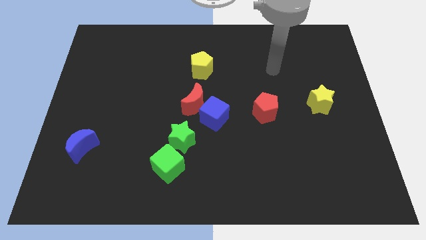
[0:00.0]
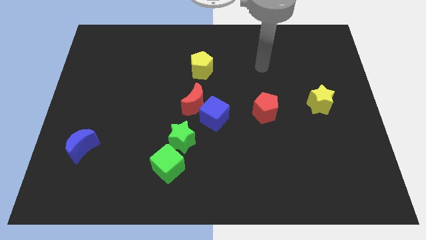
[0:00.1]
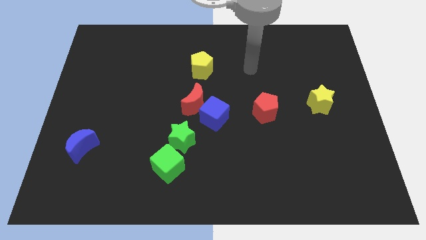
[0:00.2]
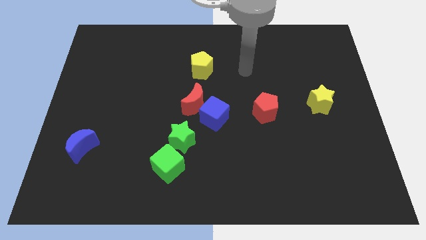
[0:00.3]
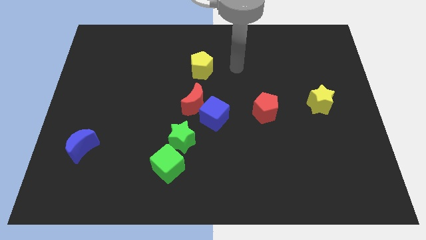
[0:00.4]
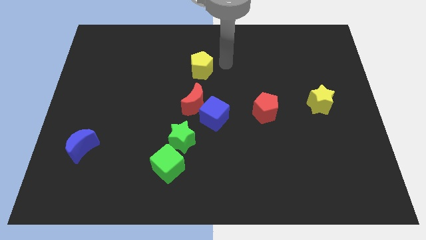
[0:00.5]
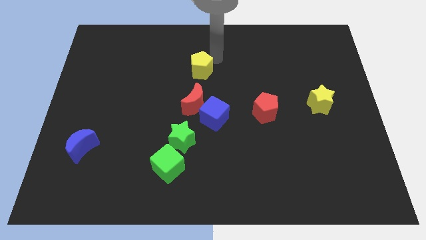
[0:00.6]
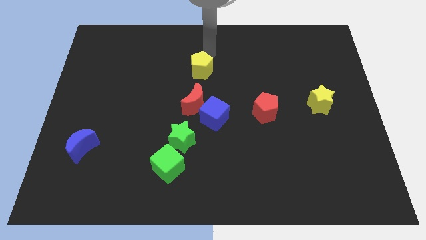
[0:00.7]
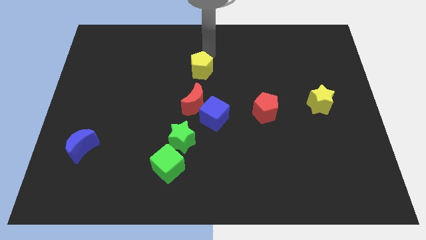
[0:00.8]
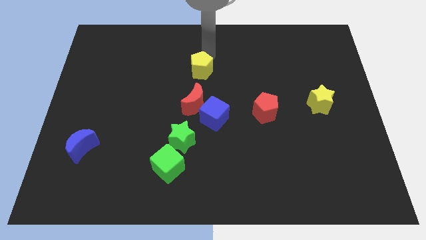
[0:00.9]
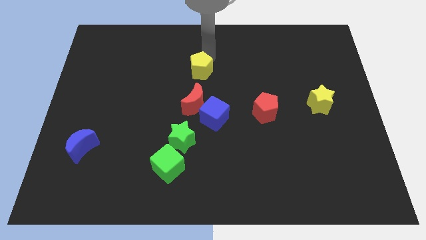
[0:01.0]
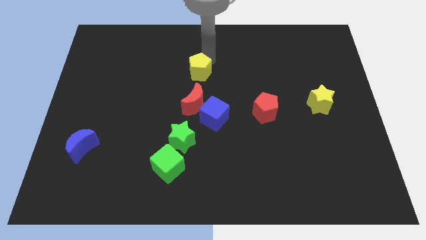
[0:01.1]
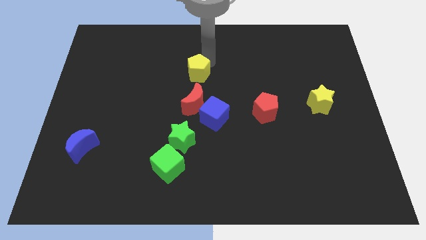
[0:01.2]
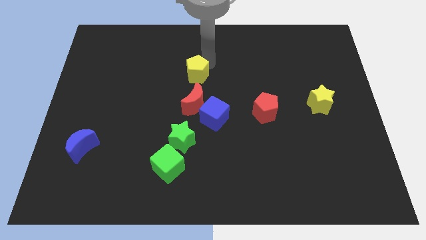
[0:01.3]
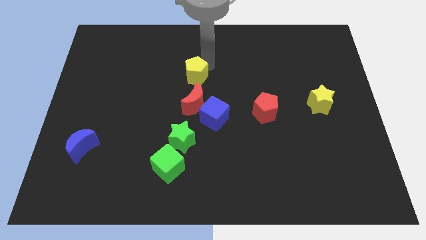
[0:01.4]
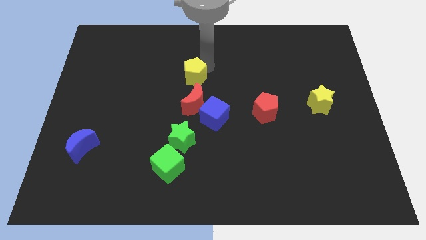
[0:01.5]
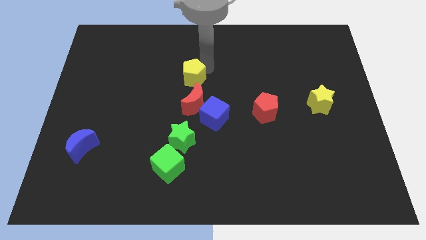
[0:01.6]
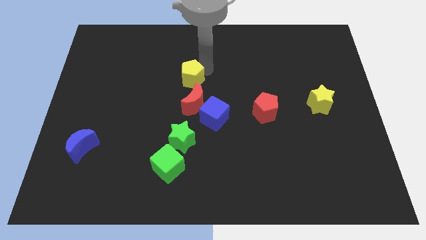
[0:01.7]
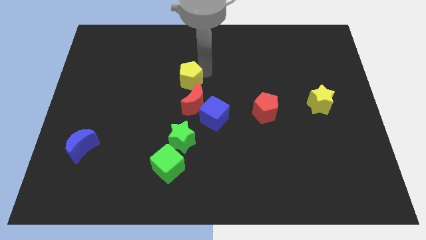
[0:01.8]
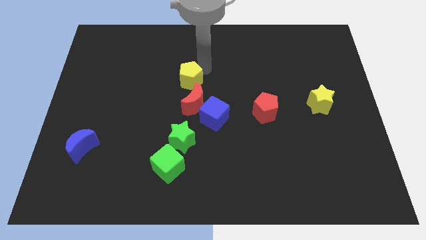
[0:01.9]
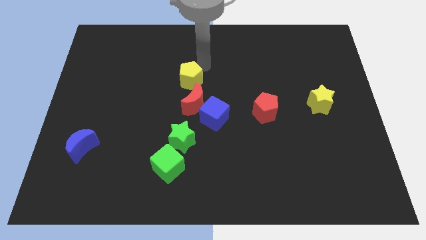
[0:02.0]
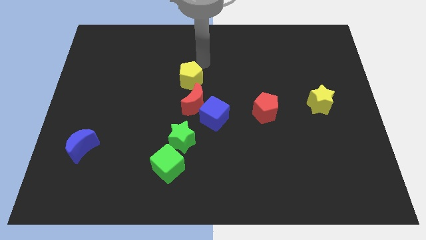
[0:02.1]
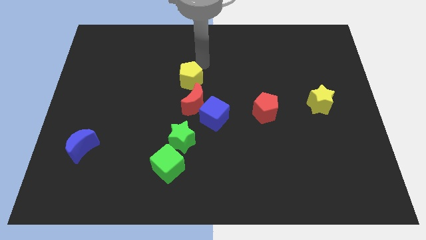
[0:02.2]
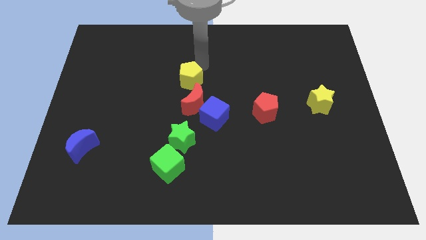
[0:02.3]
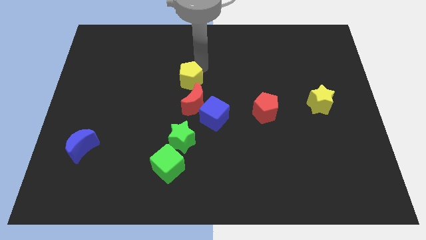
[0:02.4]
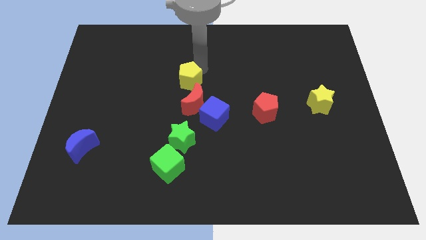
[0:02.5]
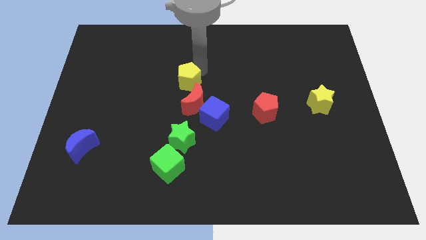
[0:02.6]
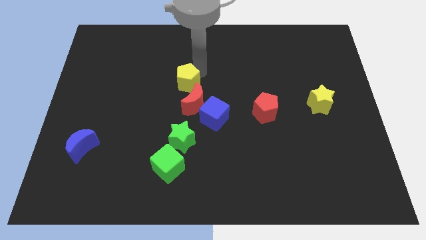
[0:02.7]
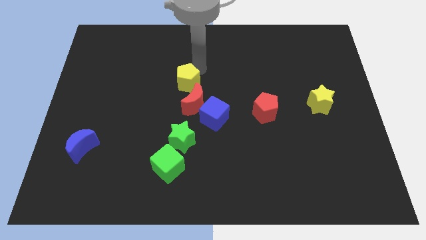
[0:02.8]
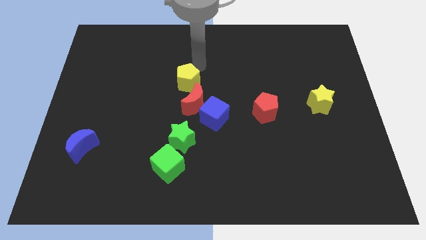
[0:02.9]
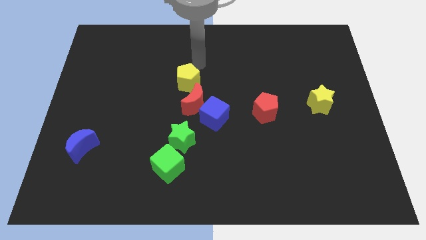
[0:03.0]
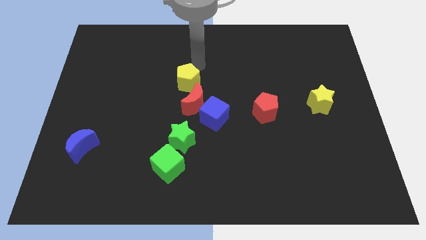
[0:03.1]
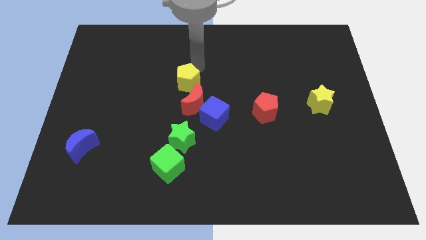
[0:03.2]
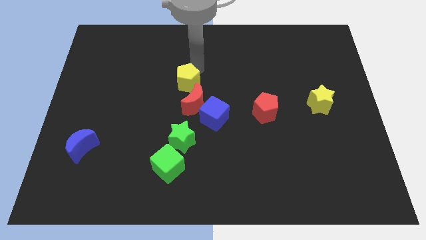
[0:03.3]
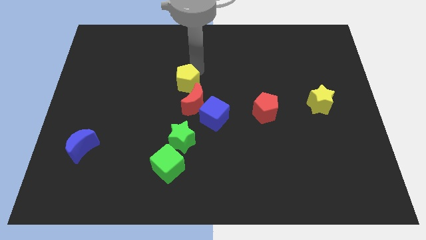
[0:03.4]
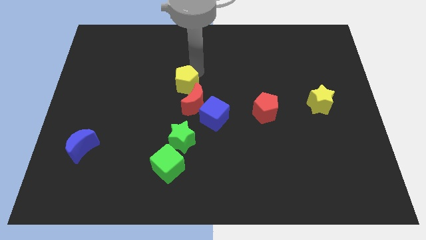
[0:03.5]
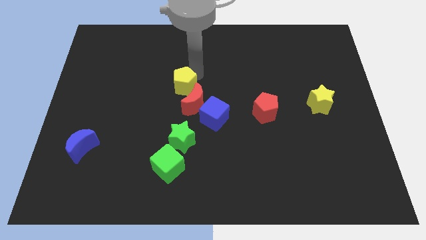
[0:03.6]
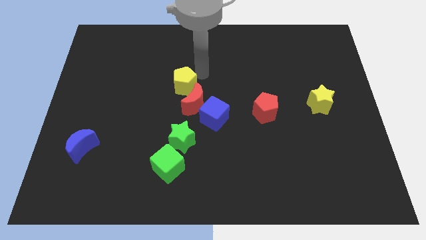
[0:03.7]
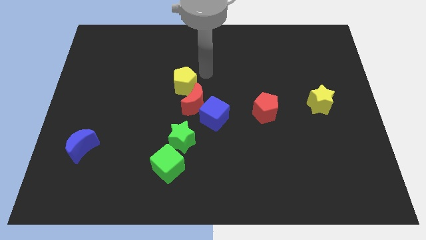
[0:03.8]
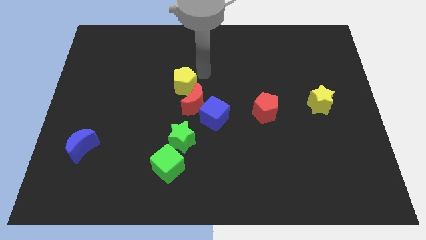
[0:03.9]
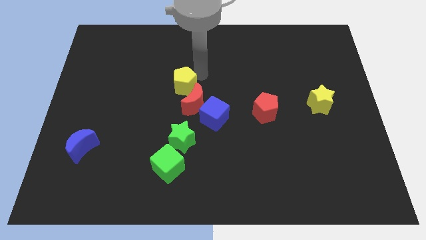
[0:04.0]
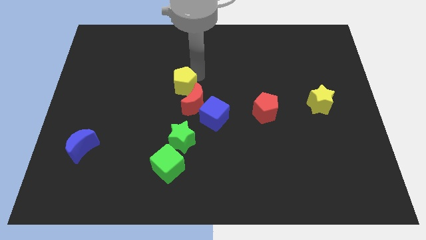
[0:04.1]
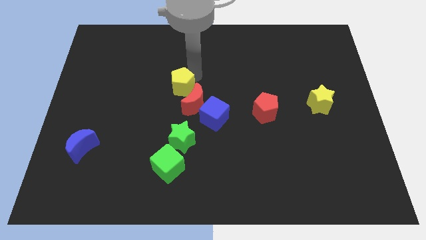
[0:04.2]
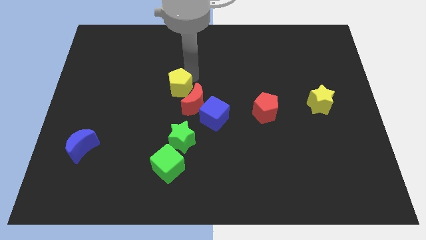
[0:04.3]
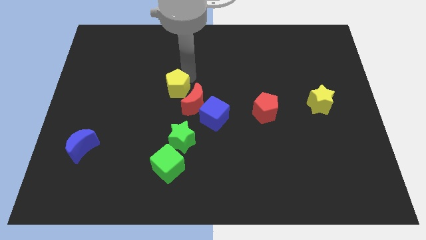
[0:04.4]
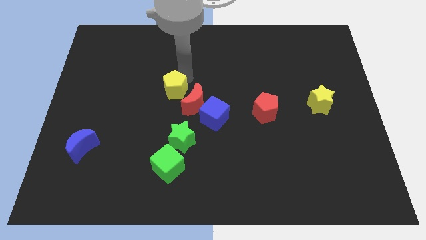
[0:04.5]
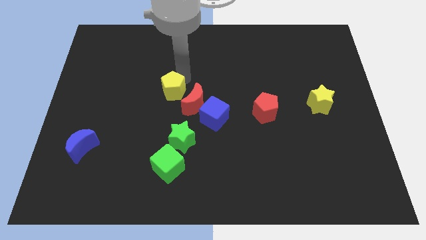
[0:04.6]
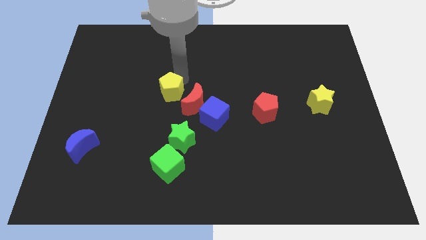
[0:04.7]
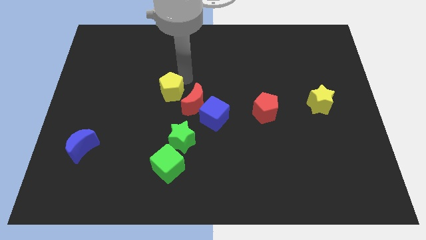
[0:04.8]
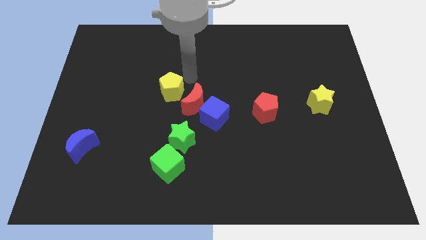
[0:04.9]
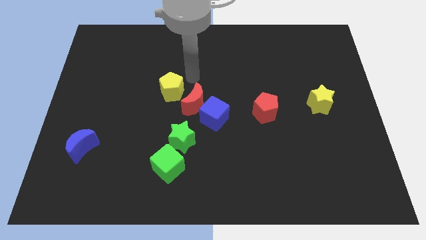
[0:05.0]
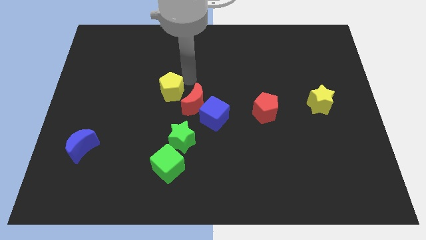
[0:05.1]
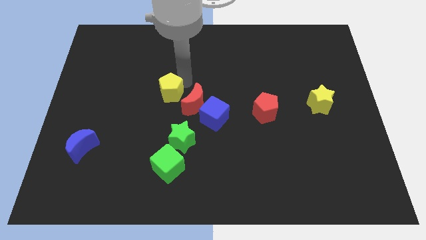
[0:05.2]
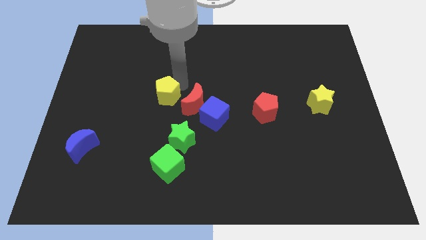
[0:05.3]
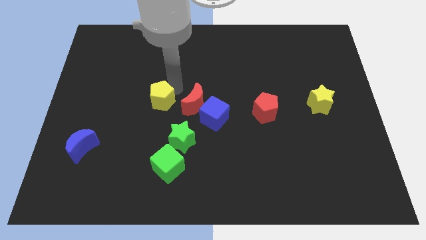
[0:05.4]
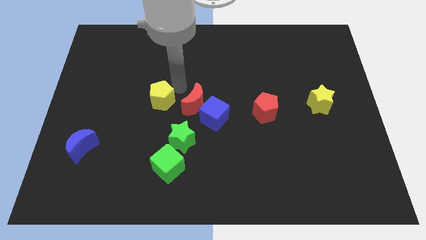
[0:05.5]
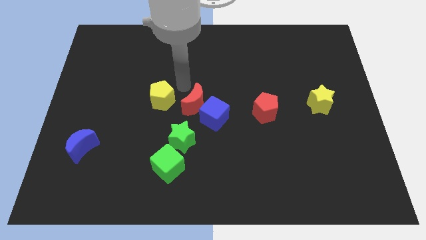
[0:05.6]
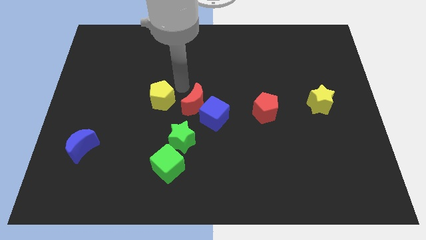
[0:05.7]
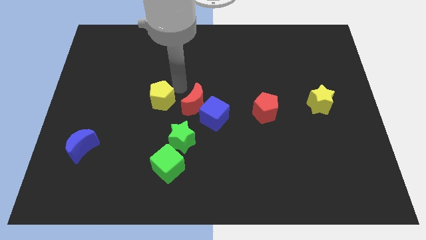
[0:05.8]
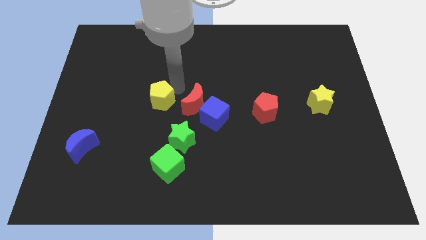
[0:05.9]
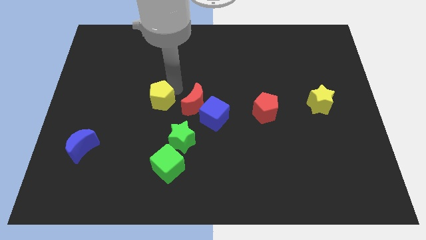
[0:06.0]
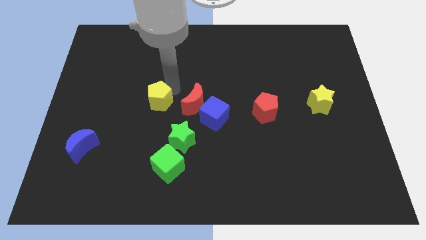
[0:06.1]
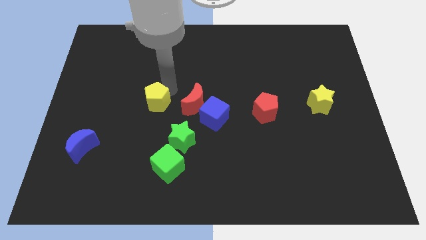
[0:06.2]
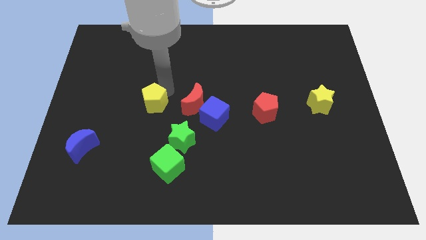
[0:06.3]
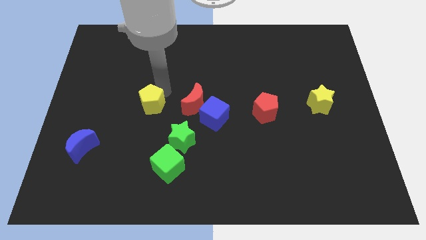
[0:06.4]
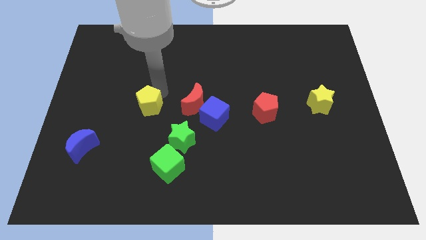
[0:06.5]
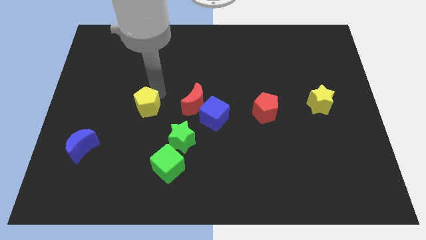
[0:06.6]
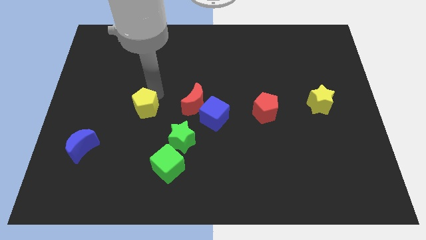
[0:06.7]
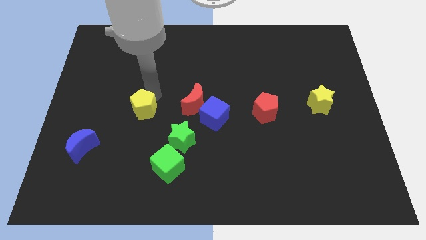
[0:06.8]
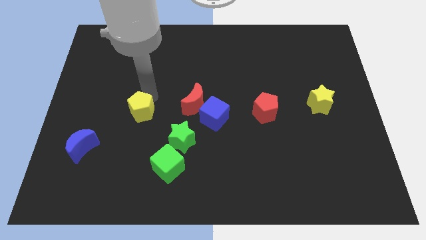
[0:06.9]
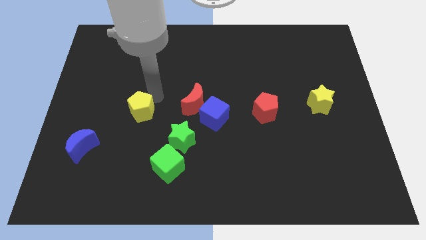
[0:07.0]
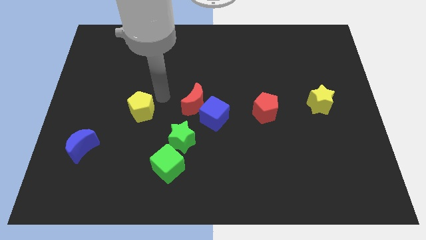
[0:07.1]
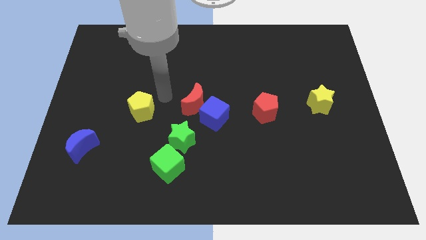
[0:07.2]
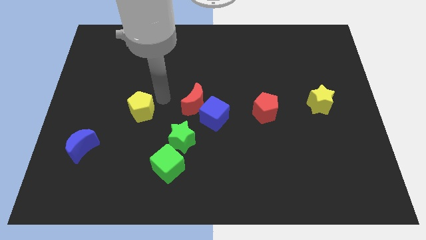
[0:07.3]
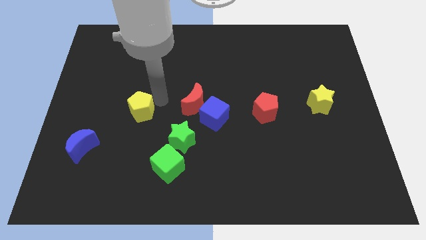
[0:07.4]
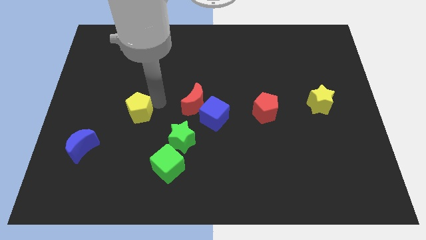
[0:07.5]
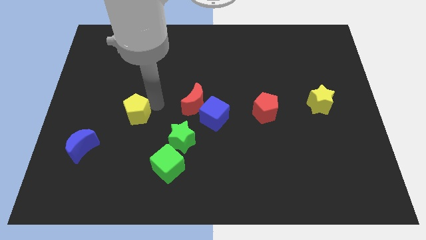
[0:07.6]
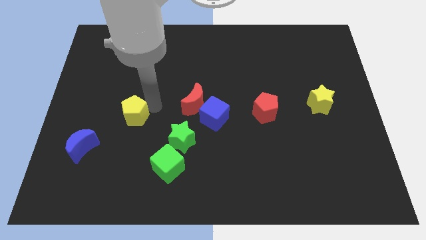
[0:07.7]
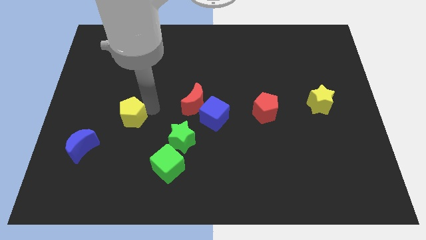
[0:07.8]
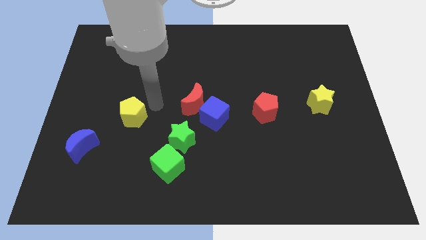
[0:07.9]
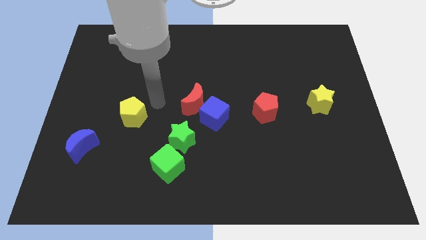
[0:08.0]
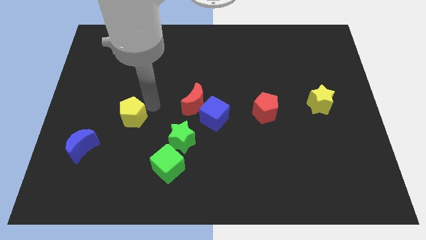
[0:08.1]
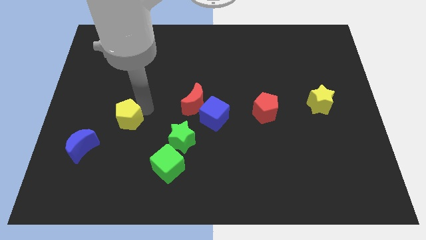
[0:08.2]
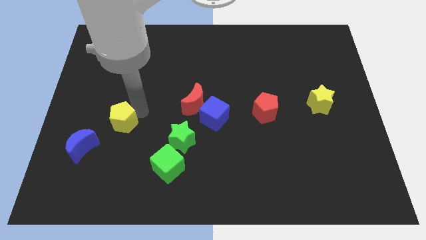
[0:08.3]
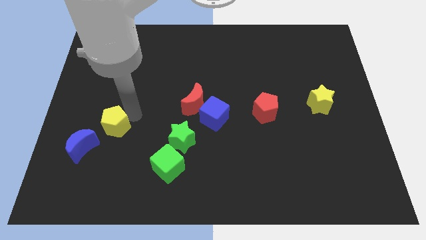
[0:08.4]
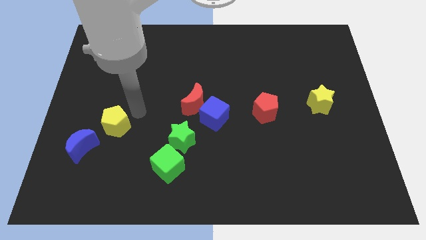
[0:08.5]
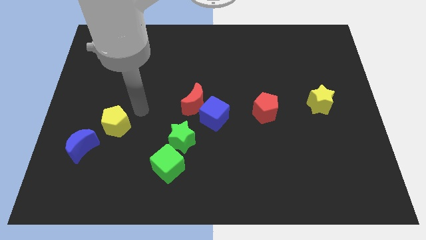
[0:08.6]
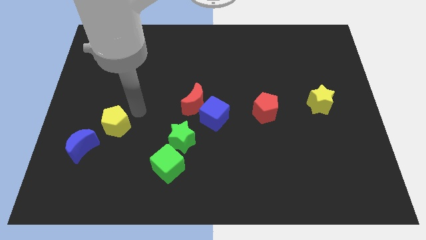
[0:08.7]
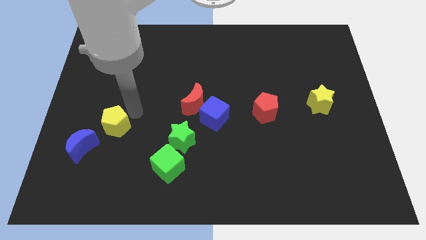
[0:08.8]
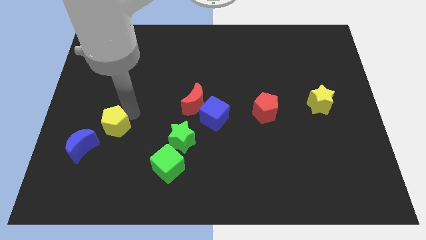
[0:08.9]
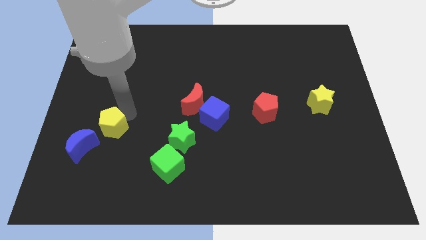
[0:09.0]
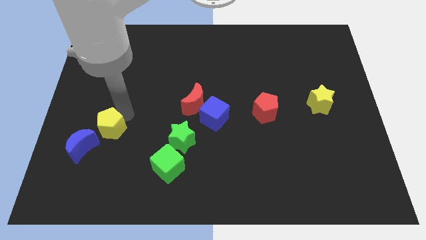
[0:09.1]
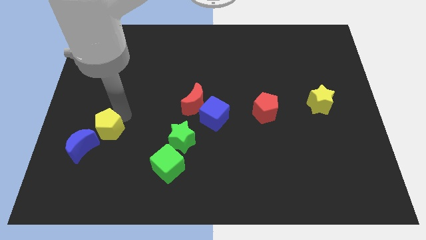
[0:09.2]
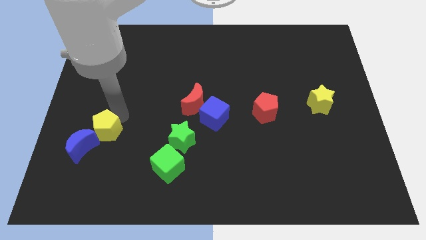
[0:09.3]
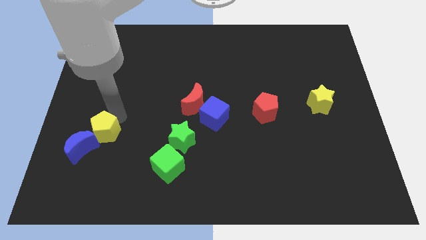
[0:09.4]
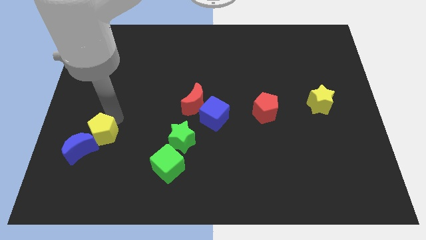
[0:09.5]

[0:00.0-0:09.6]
push the yellow pentagon close to the blue moon
